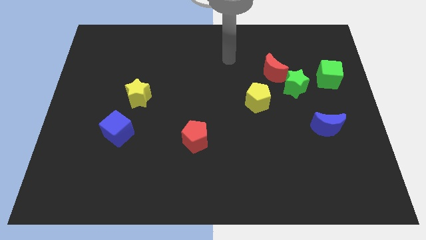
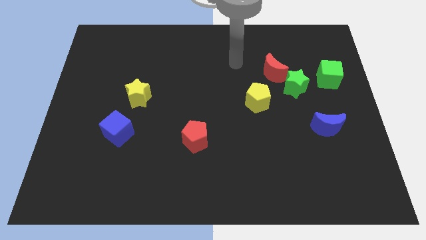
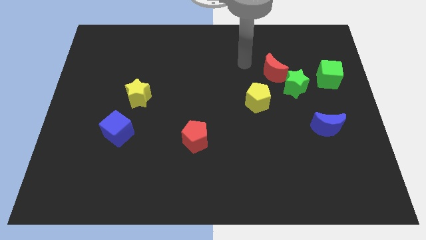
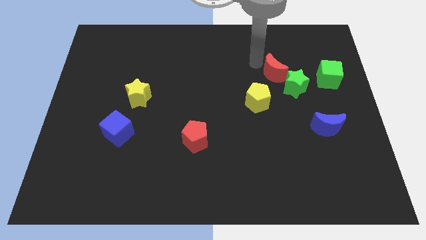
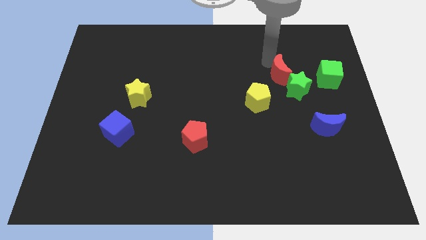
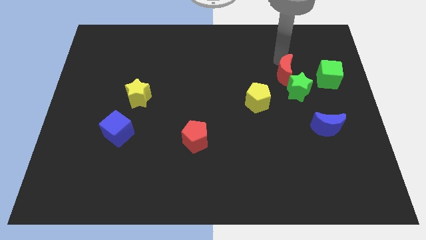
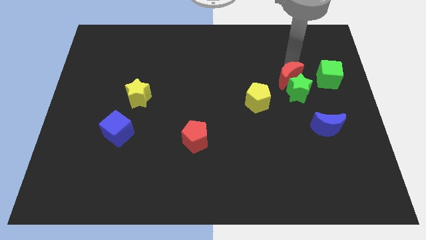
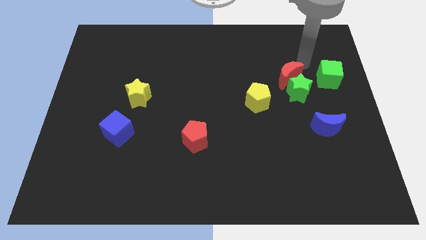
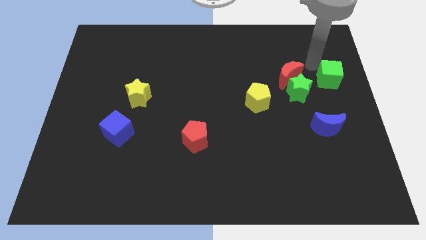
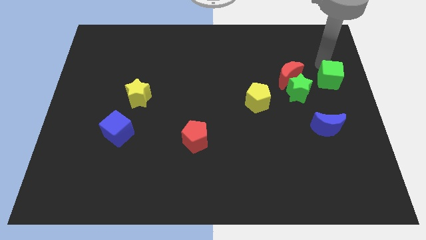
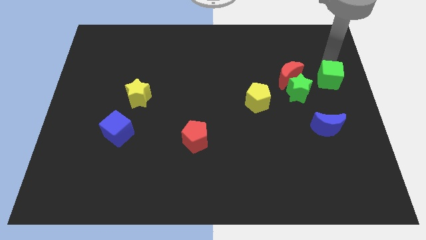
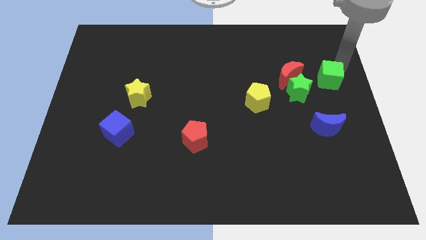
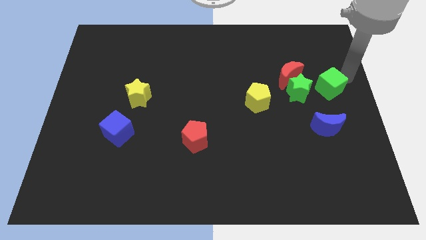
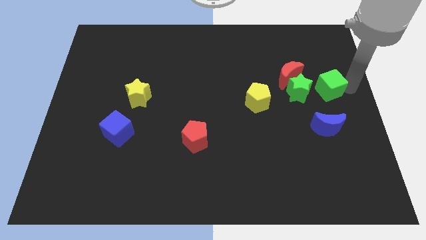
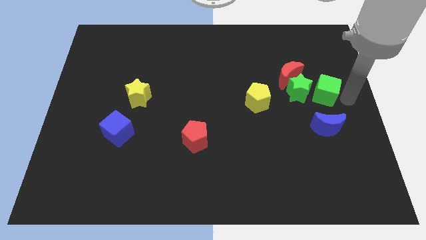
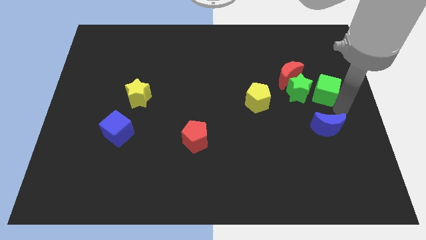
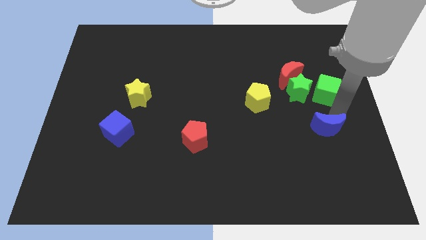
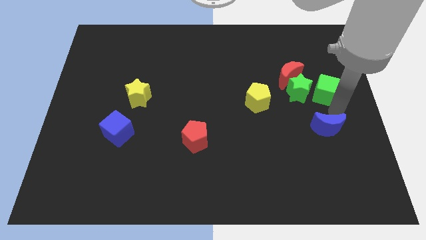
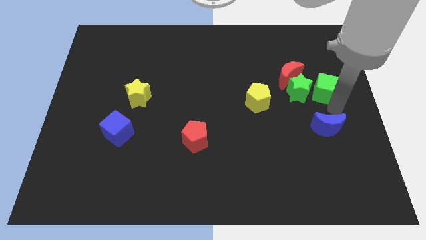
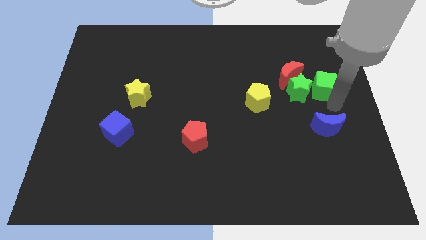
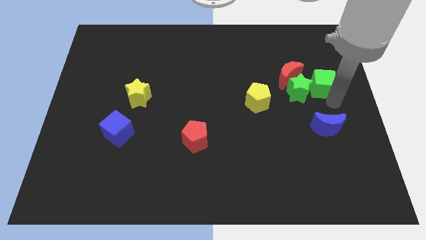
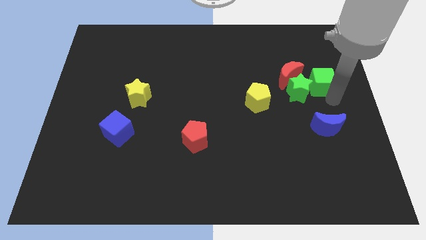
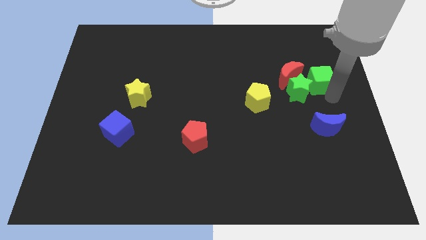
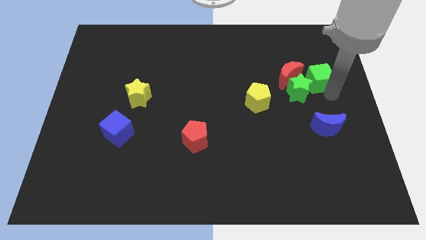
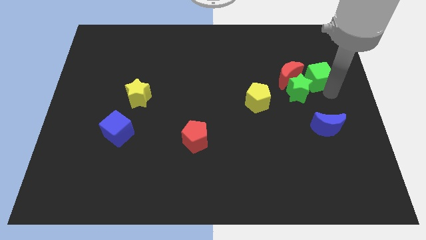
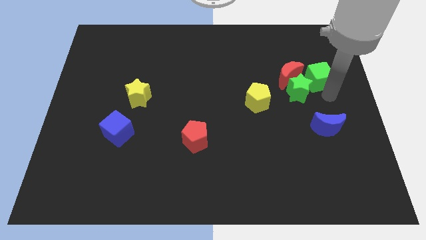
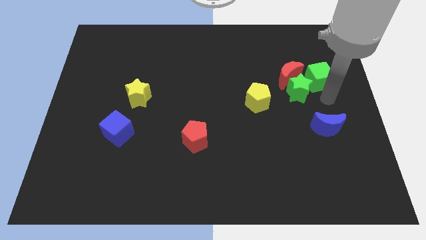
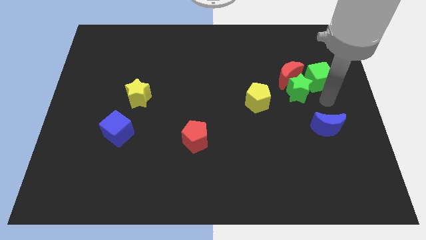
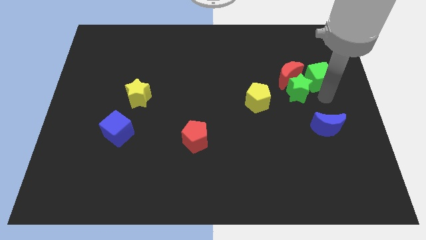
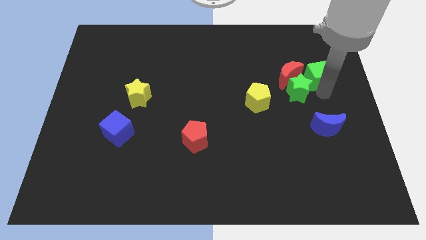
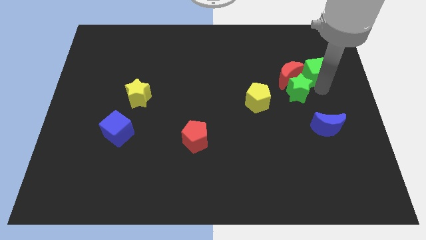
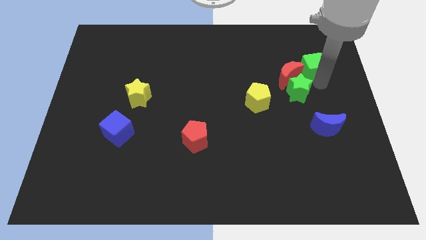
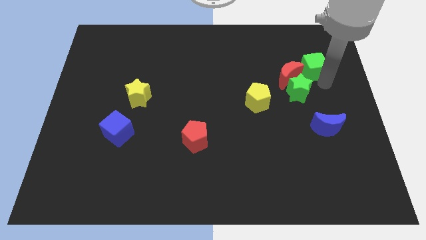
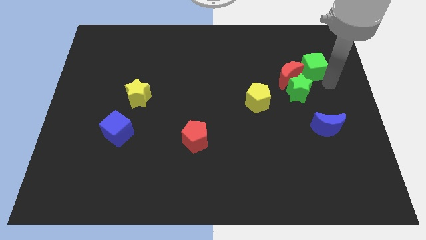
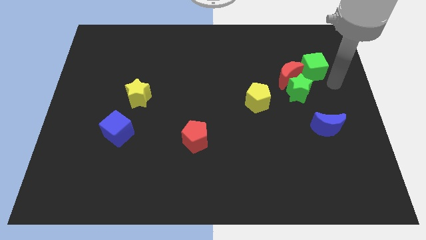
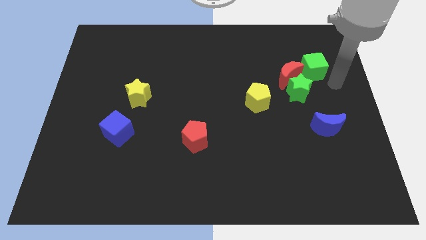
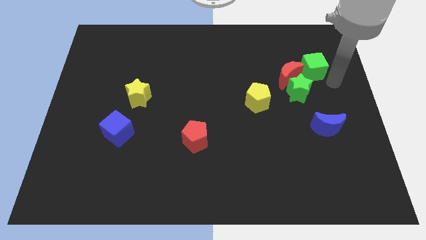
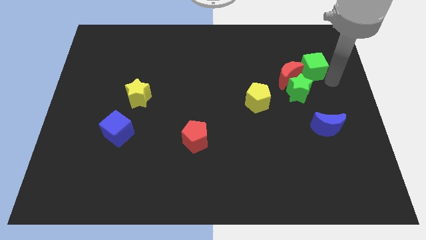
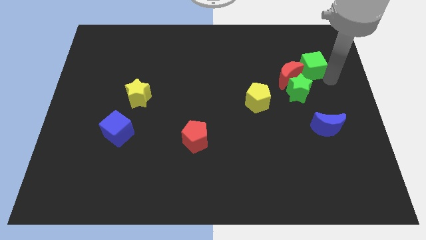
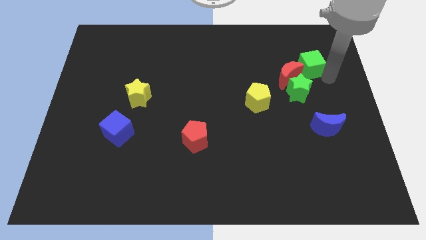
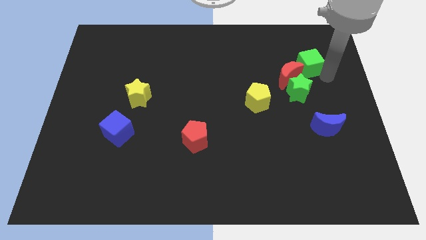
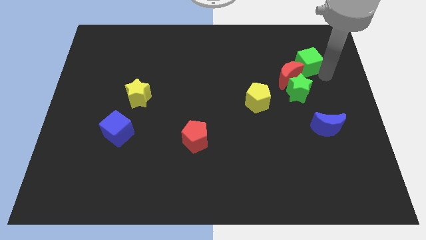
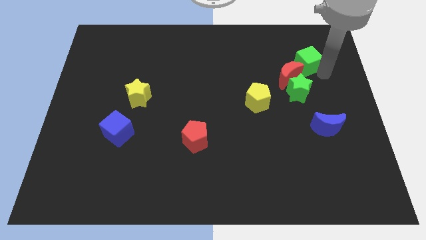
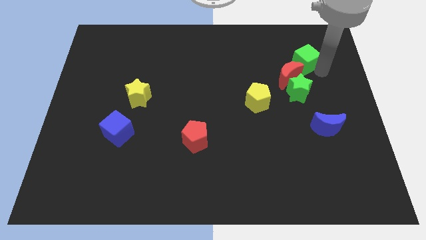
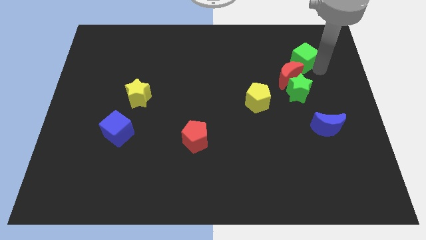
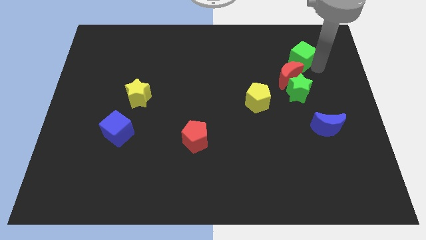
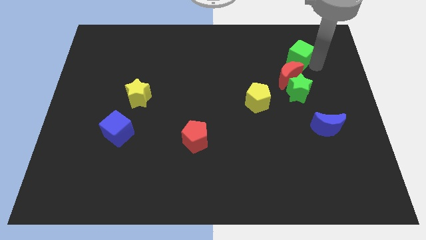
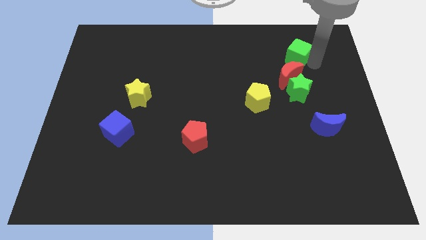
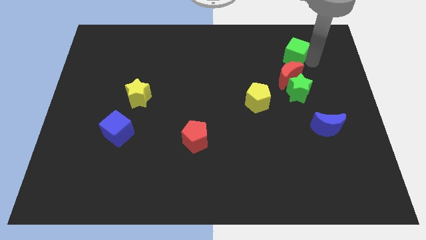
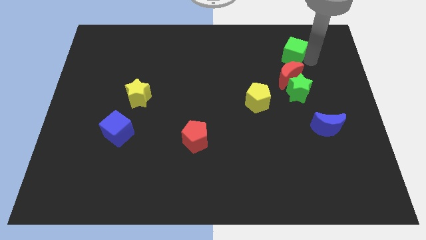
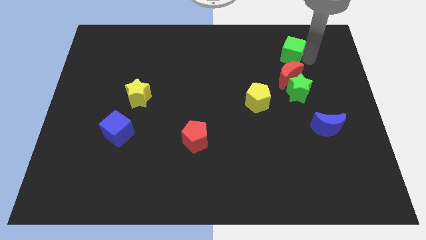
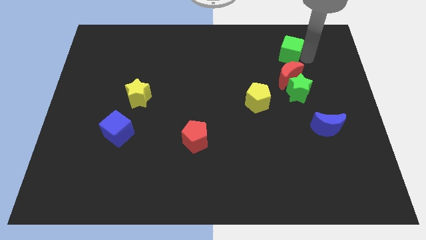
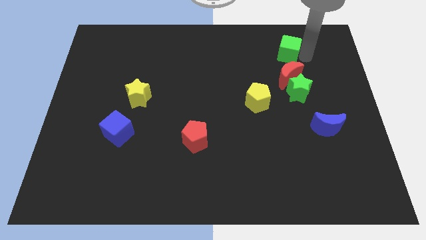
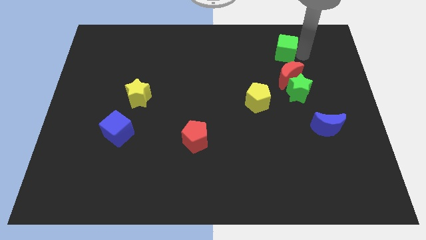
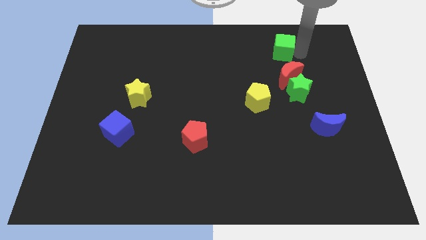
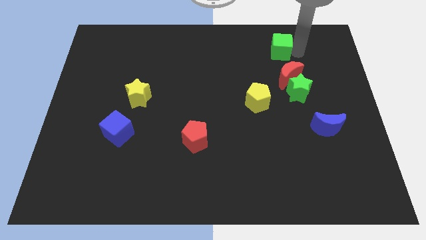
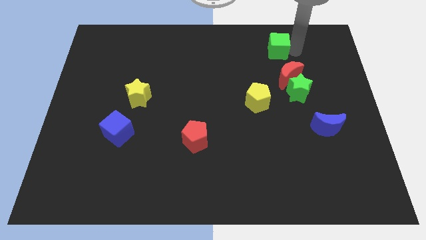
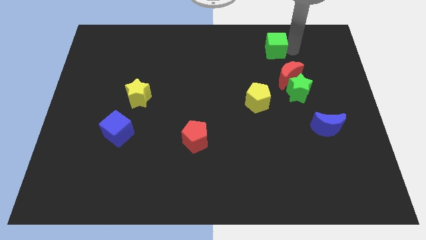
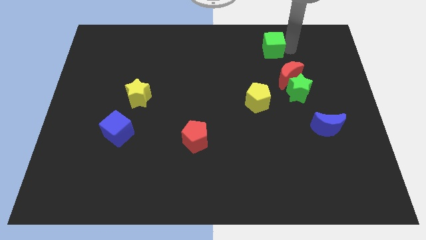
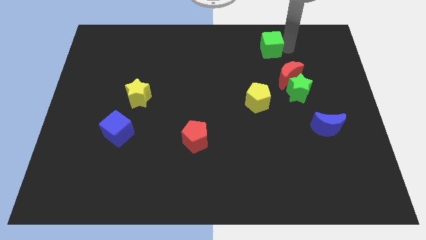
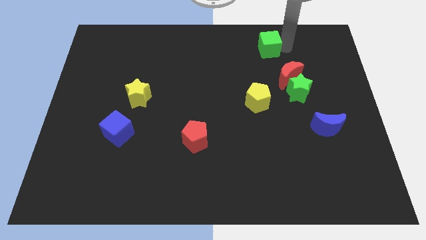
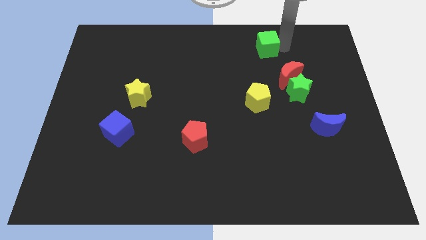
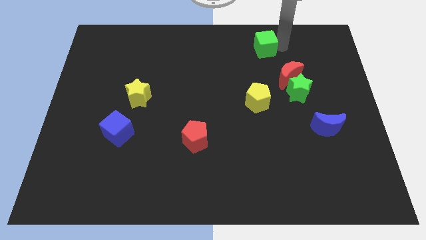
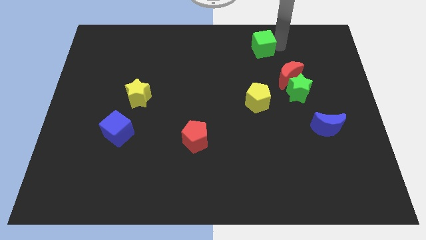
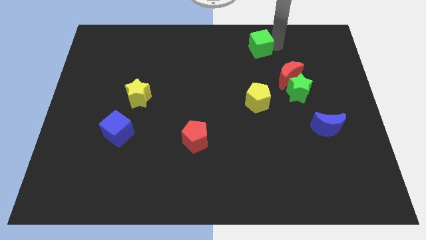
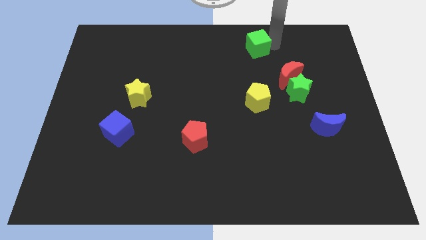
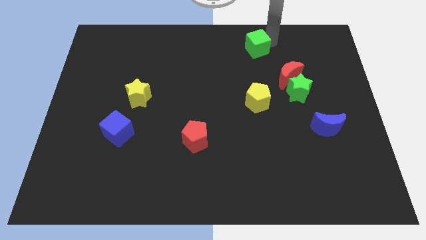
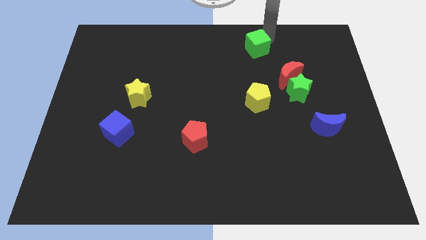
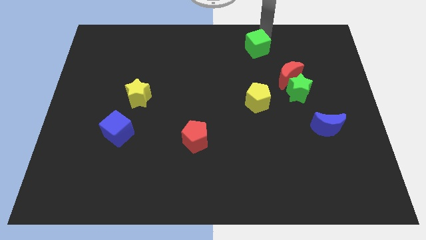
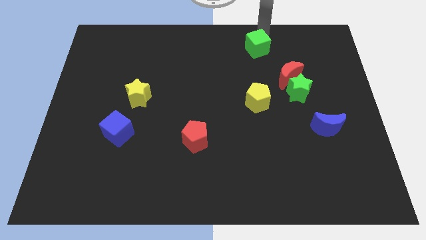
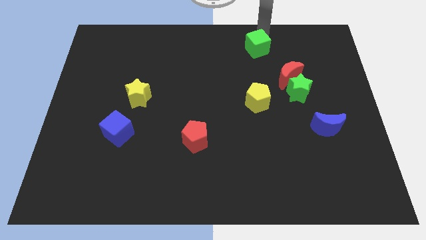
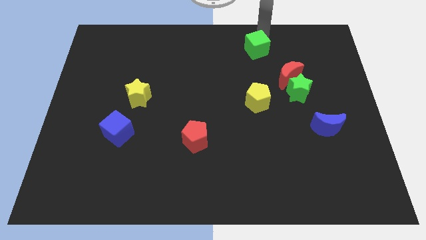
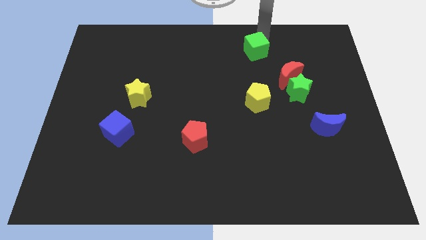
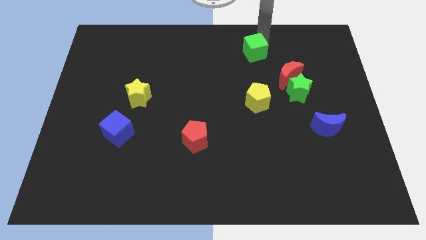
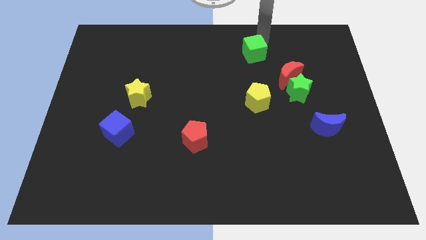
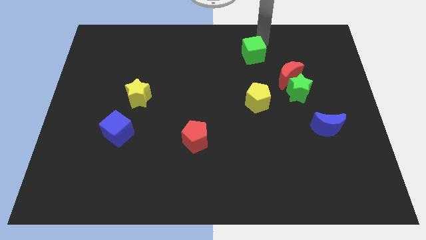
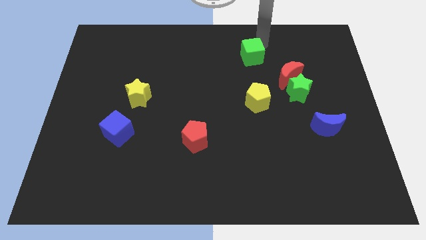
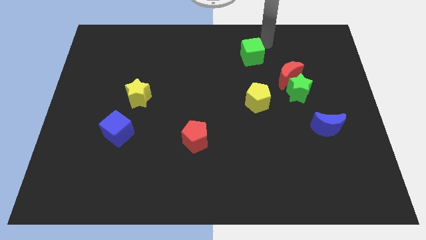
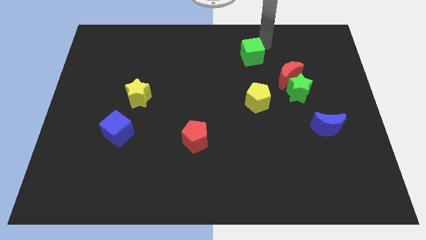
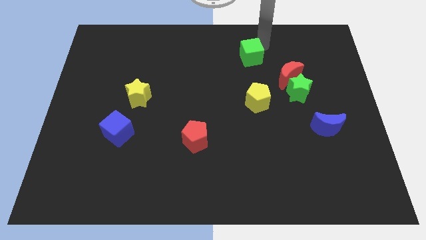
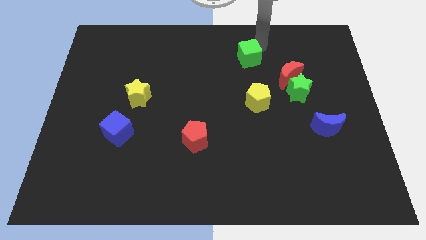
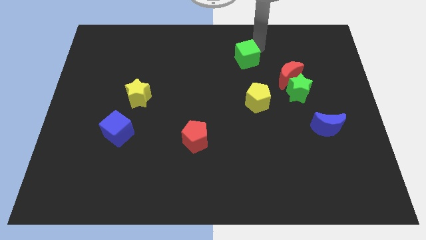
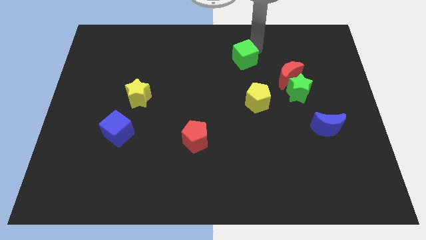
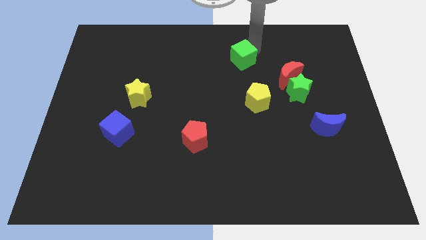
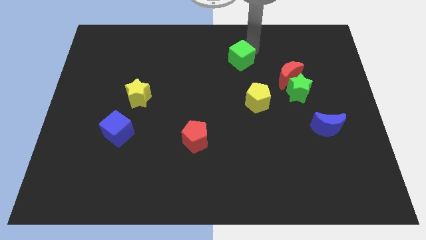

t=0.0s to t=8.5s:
move the green cube left
